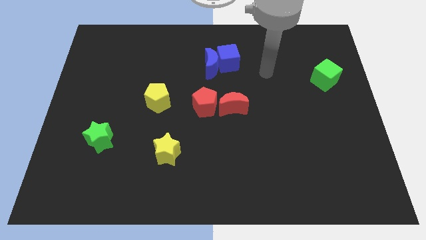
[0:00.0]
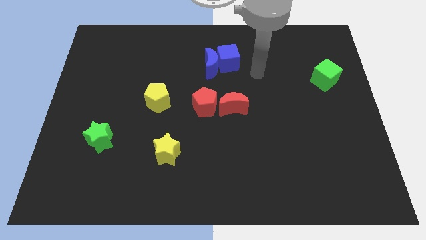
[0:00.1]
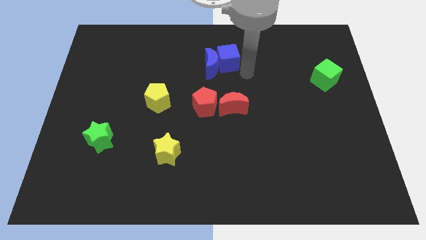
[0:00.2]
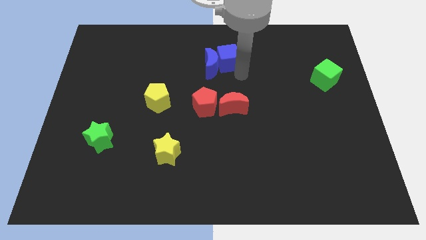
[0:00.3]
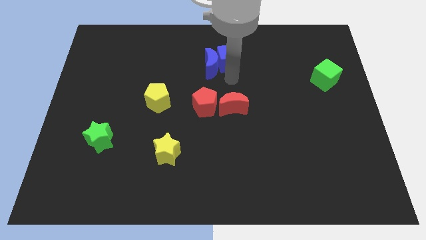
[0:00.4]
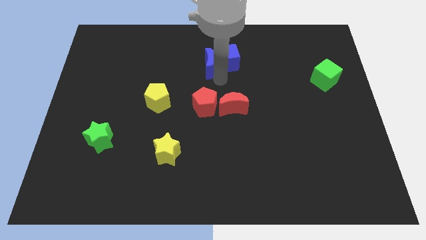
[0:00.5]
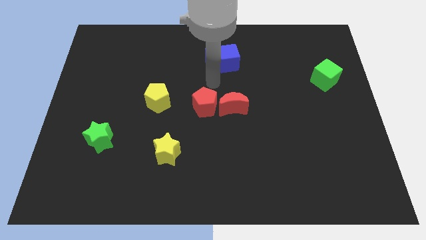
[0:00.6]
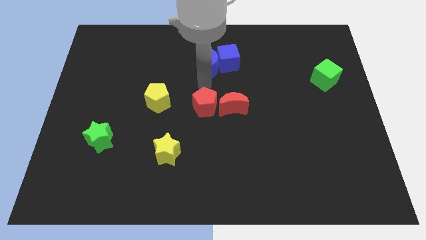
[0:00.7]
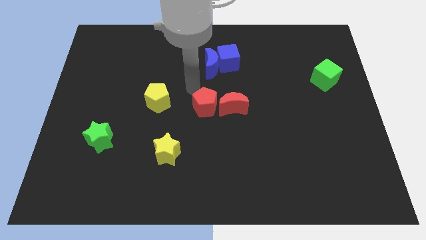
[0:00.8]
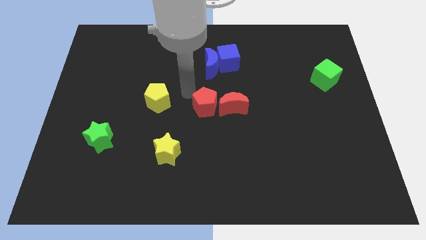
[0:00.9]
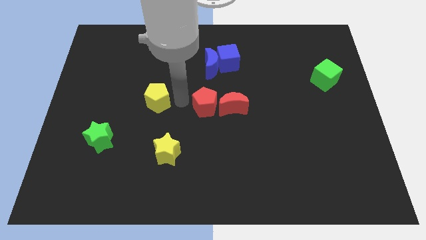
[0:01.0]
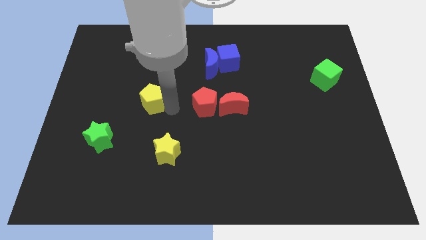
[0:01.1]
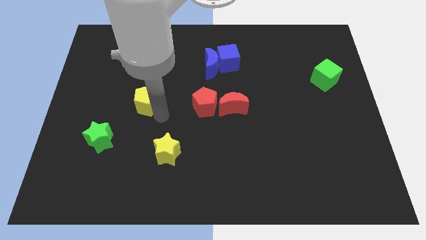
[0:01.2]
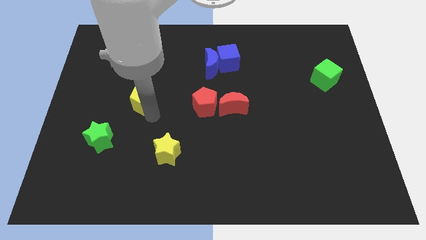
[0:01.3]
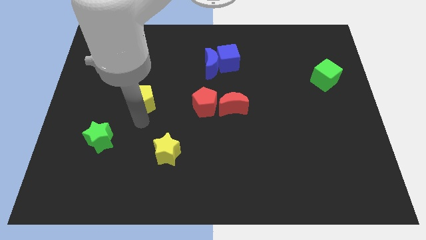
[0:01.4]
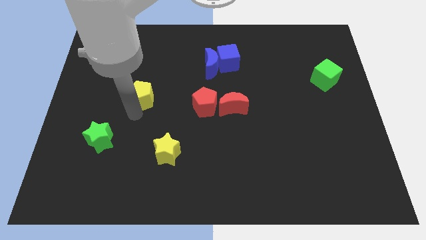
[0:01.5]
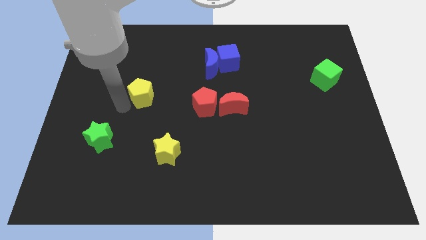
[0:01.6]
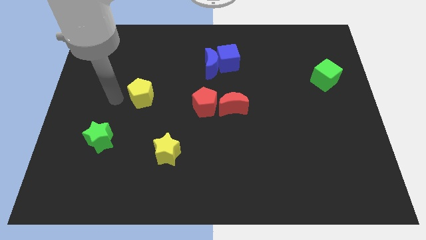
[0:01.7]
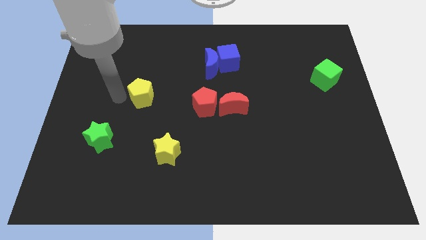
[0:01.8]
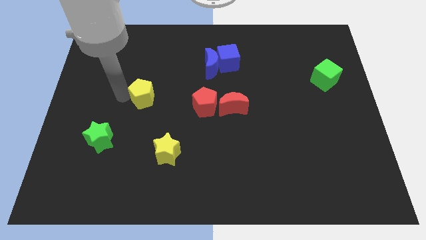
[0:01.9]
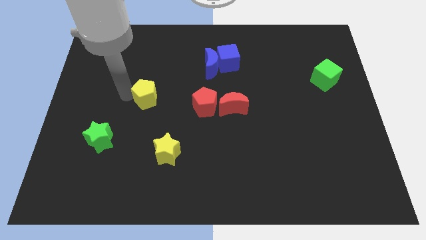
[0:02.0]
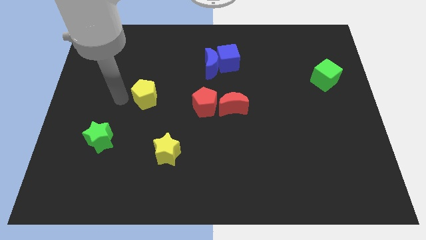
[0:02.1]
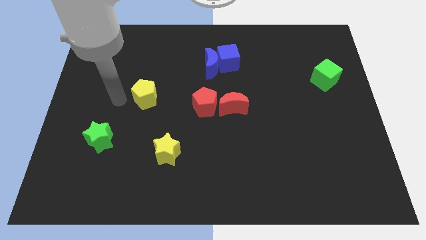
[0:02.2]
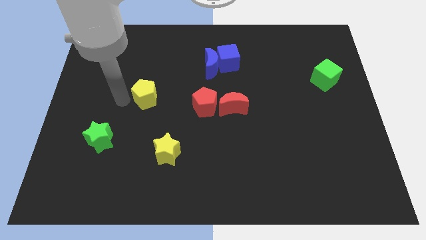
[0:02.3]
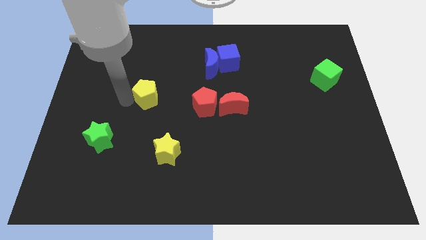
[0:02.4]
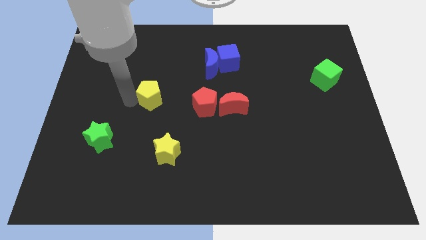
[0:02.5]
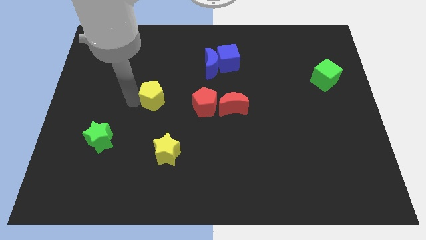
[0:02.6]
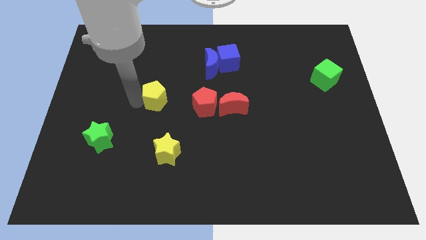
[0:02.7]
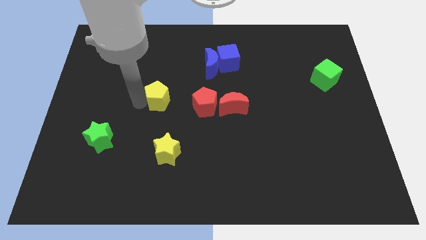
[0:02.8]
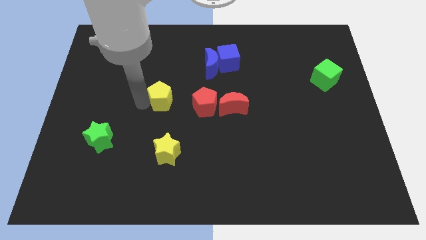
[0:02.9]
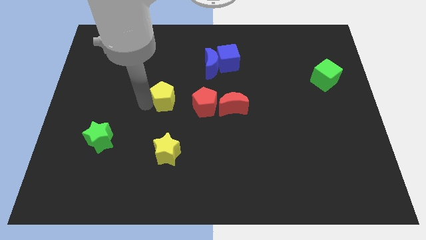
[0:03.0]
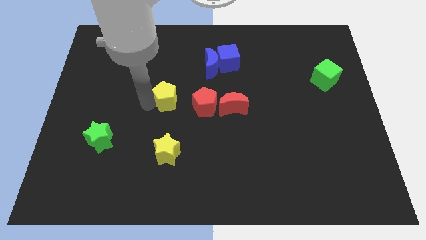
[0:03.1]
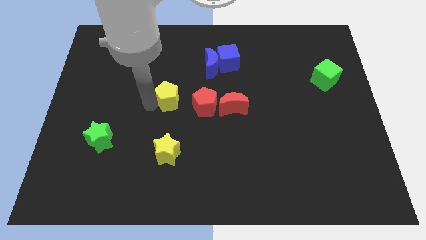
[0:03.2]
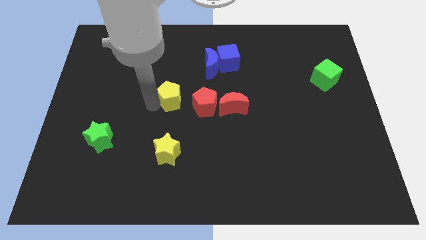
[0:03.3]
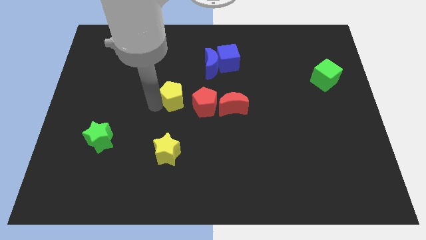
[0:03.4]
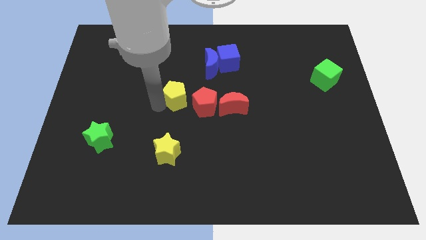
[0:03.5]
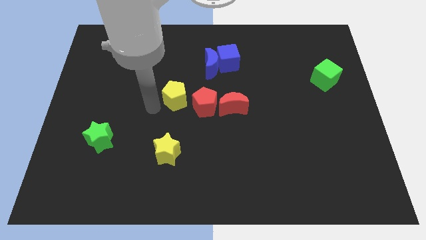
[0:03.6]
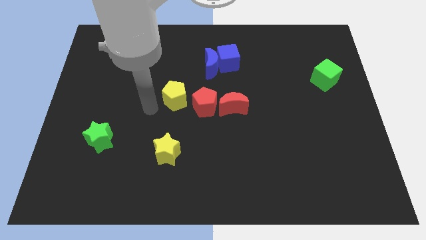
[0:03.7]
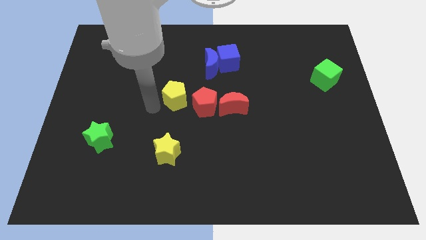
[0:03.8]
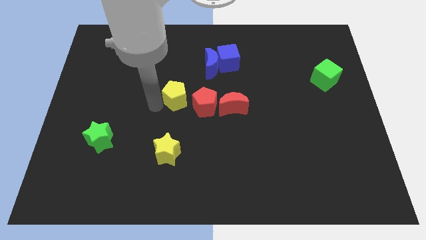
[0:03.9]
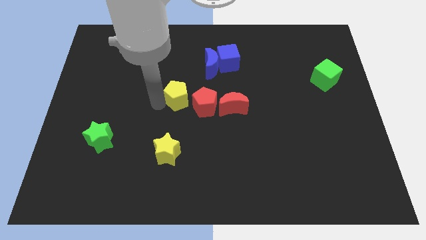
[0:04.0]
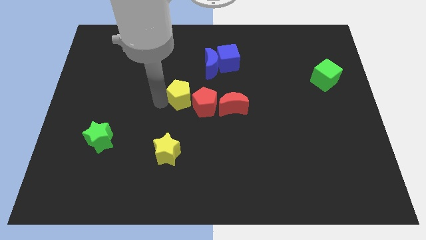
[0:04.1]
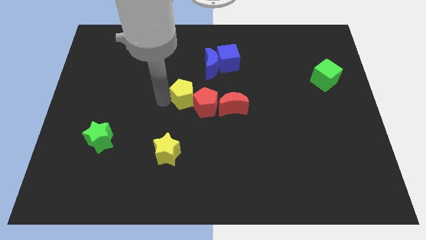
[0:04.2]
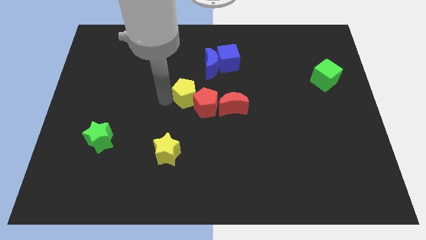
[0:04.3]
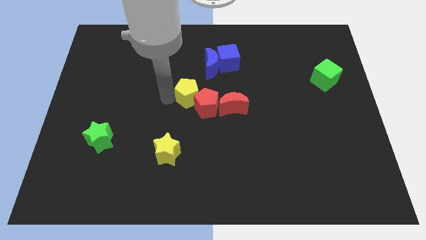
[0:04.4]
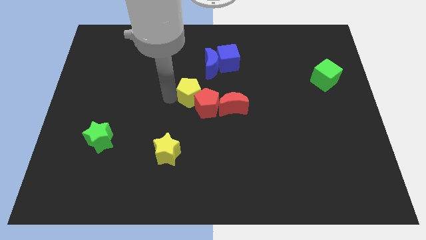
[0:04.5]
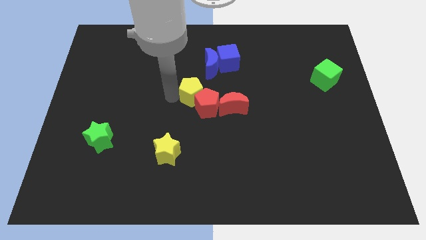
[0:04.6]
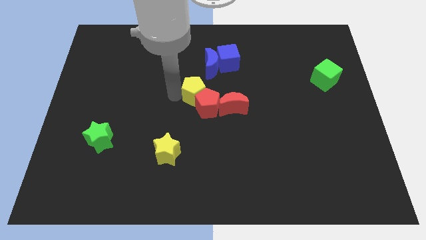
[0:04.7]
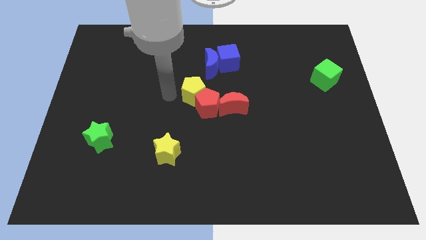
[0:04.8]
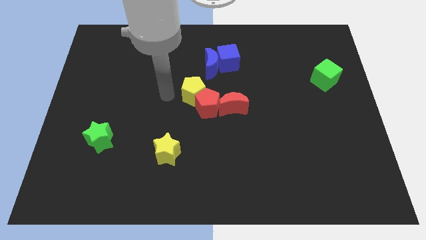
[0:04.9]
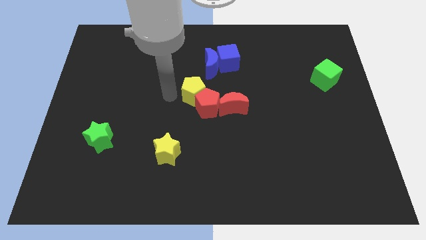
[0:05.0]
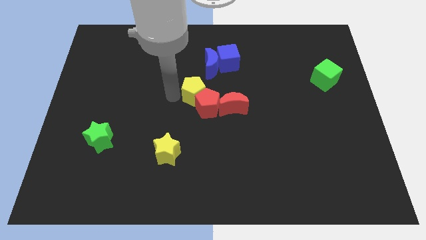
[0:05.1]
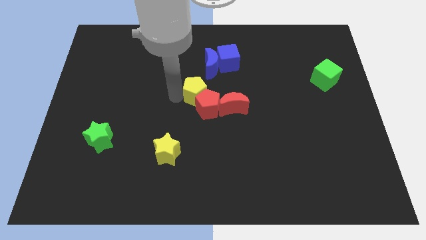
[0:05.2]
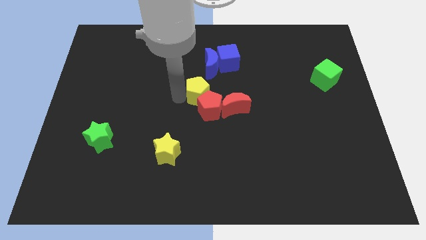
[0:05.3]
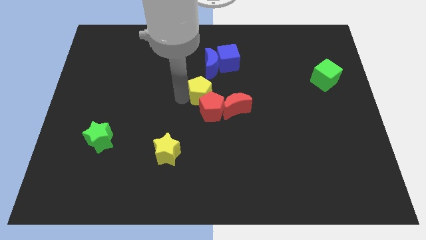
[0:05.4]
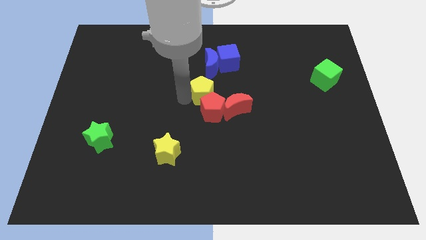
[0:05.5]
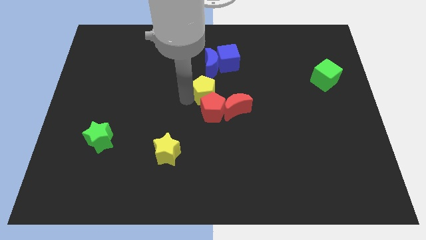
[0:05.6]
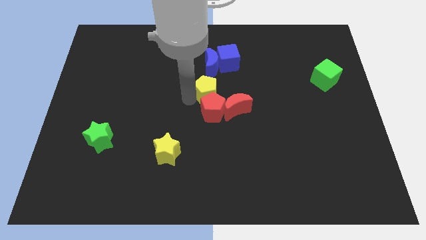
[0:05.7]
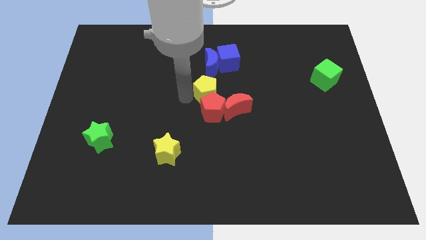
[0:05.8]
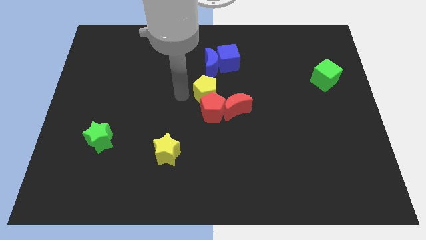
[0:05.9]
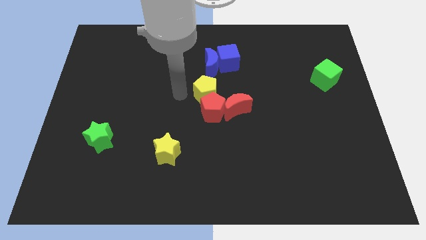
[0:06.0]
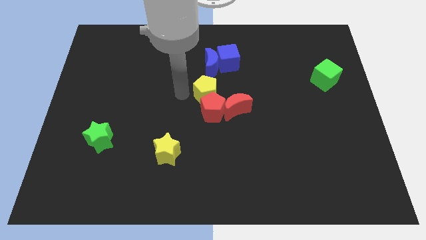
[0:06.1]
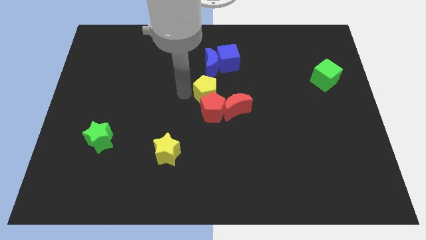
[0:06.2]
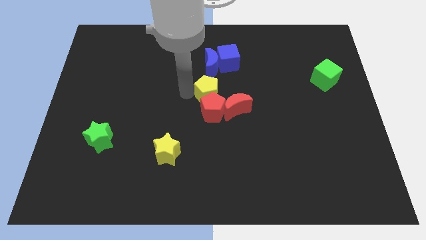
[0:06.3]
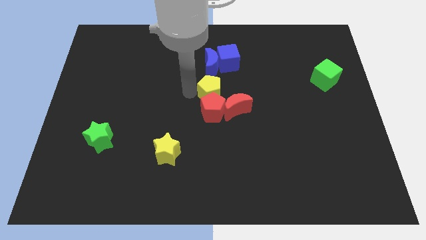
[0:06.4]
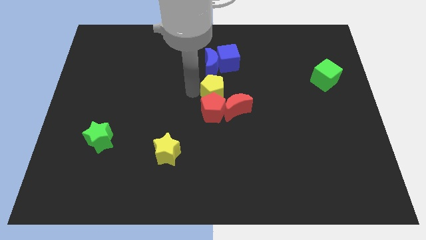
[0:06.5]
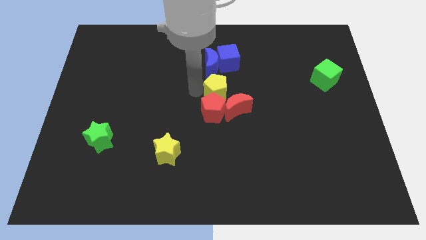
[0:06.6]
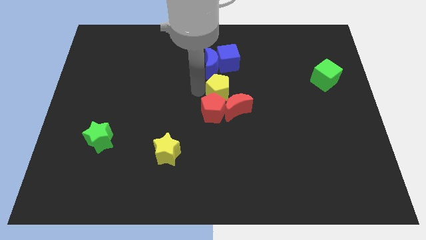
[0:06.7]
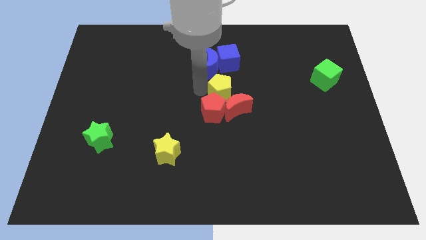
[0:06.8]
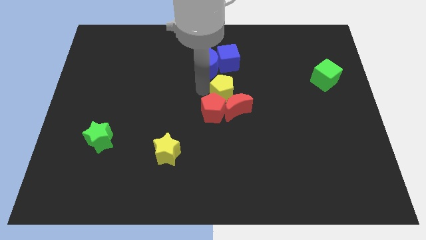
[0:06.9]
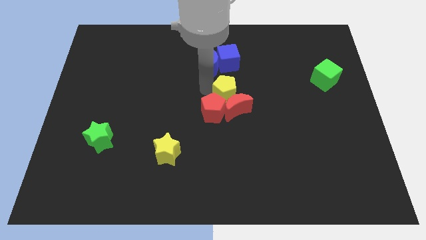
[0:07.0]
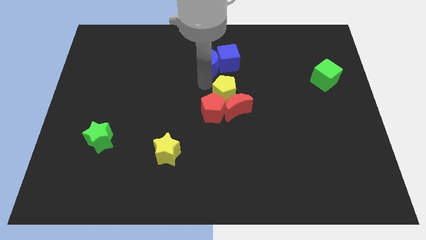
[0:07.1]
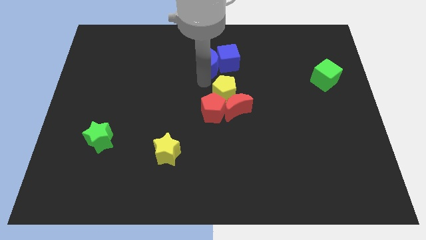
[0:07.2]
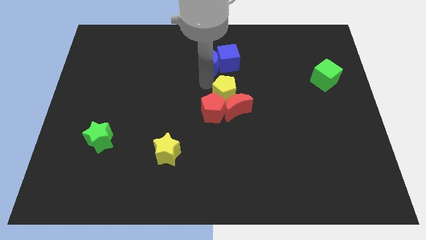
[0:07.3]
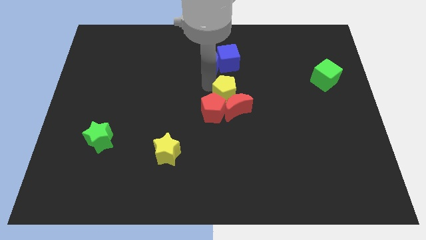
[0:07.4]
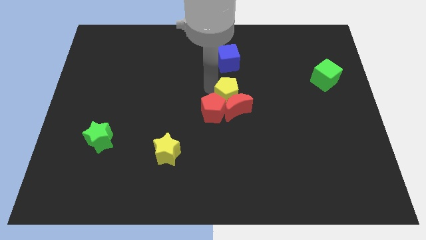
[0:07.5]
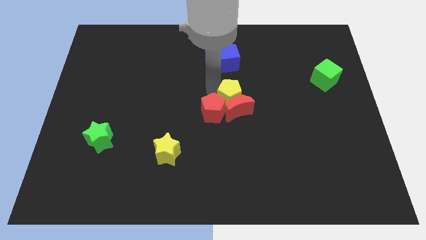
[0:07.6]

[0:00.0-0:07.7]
push the yellow pentagon just right of the red pentagon

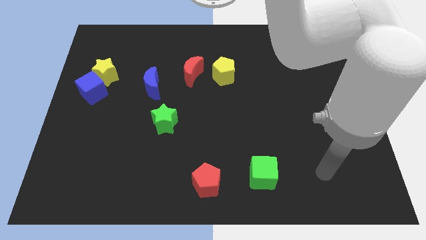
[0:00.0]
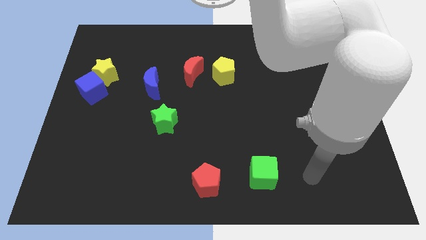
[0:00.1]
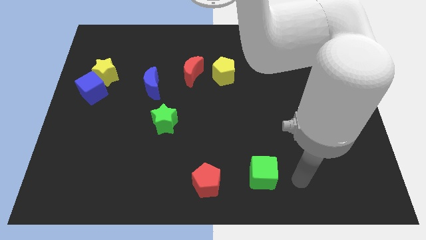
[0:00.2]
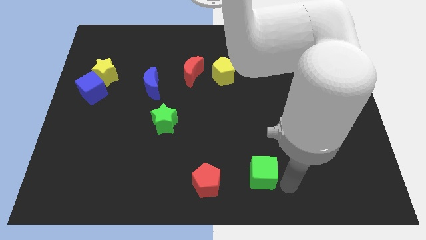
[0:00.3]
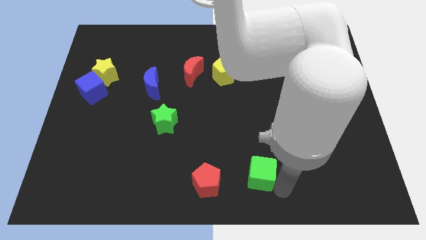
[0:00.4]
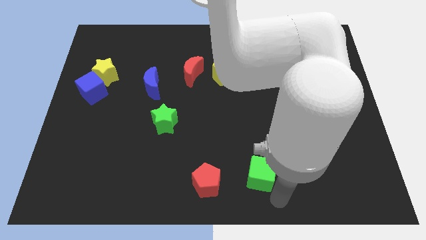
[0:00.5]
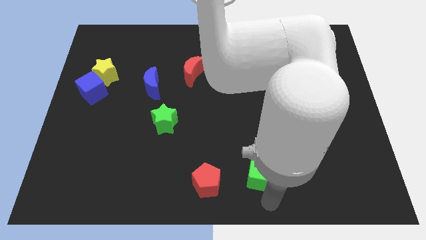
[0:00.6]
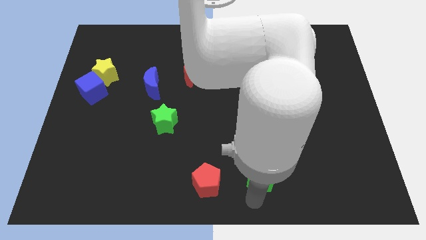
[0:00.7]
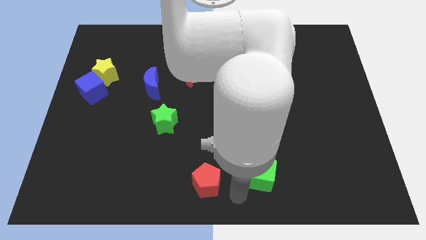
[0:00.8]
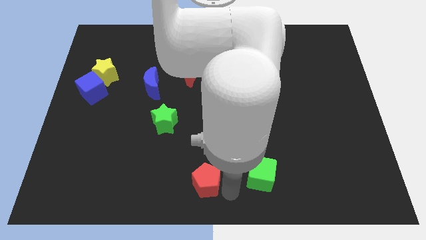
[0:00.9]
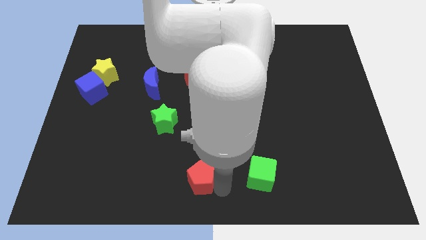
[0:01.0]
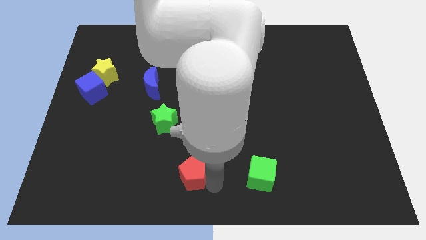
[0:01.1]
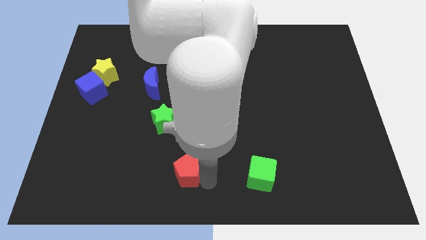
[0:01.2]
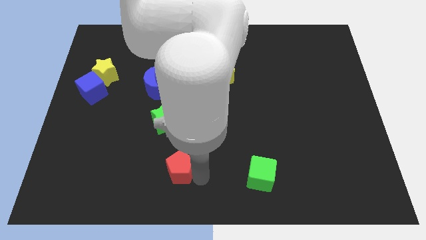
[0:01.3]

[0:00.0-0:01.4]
push the red pentagon to the bottom of the green star
